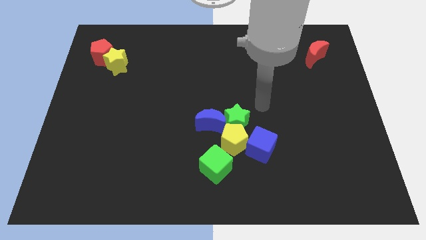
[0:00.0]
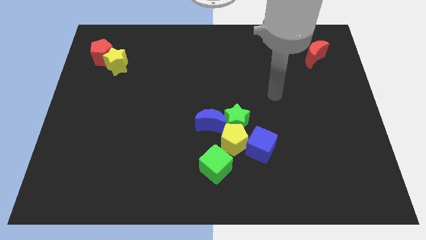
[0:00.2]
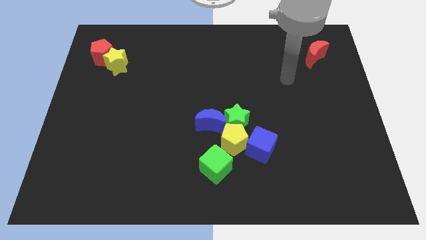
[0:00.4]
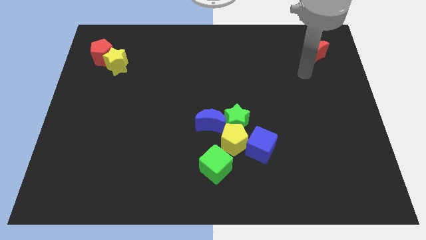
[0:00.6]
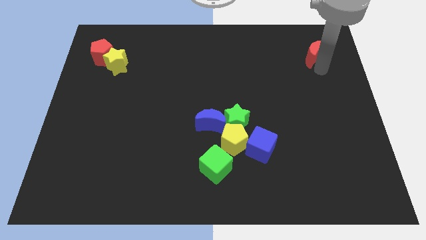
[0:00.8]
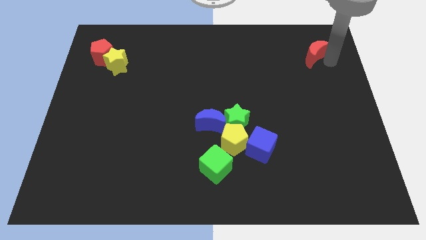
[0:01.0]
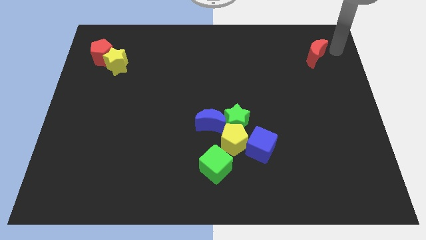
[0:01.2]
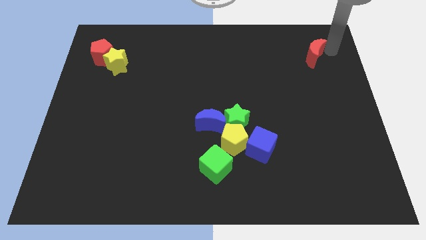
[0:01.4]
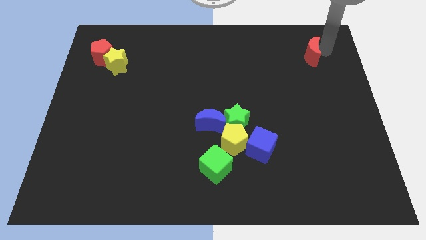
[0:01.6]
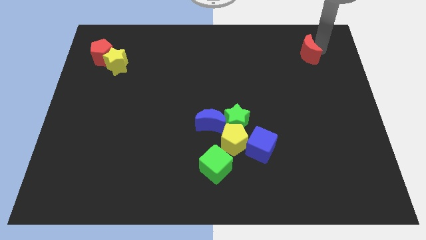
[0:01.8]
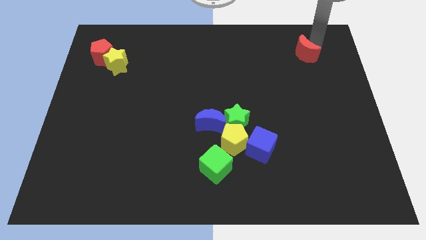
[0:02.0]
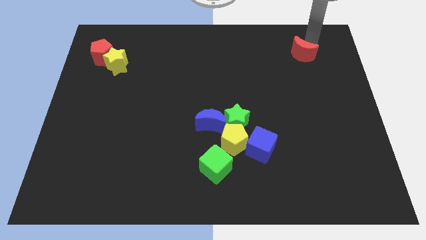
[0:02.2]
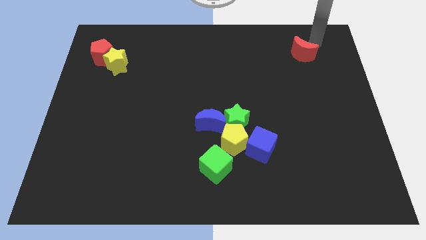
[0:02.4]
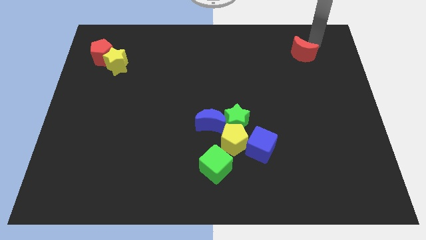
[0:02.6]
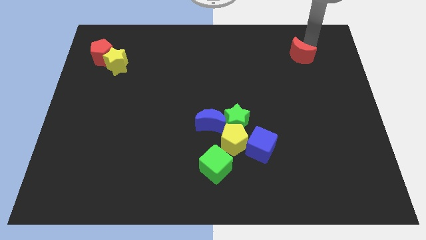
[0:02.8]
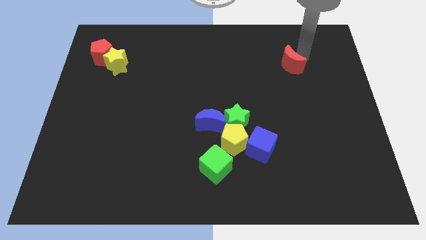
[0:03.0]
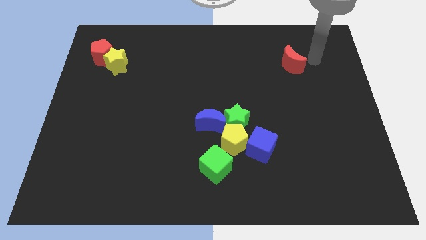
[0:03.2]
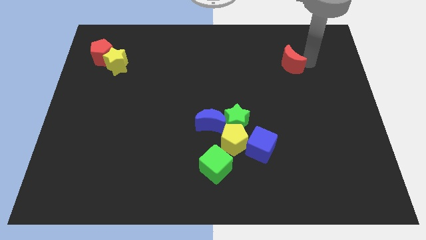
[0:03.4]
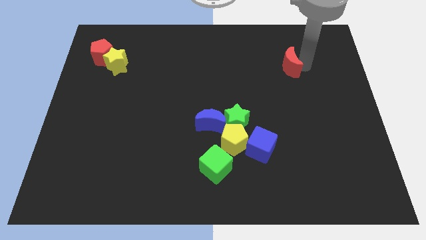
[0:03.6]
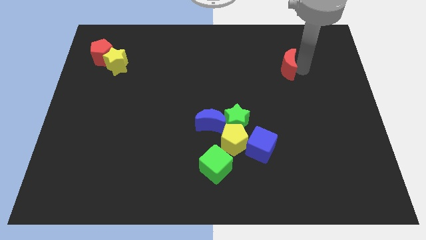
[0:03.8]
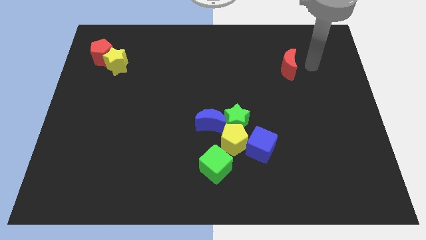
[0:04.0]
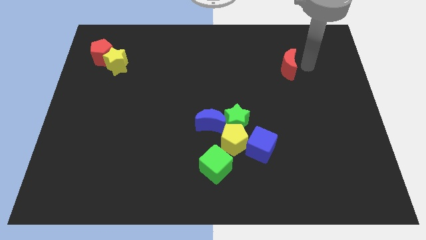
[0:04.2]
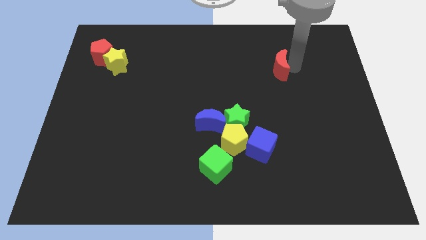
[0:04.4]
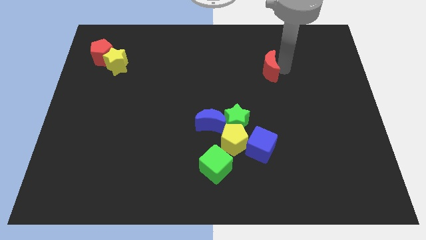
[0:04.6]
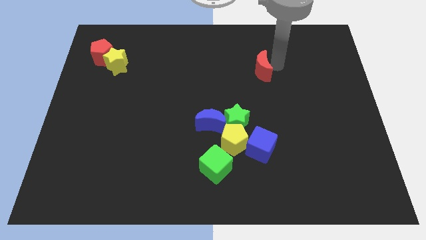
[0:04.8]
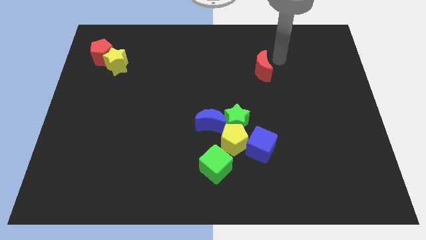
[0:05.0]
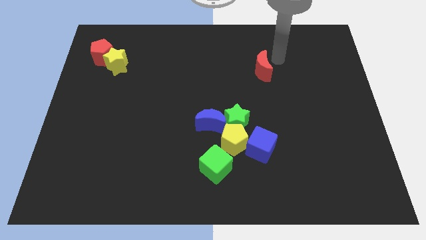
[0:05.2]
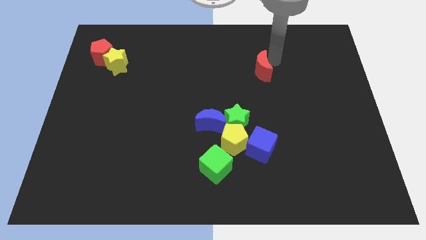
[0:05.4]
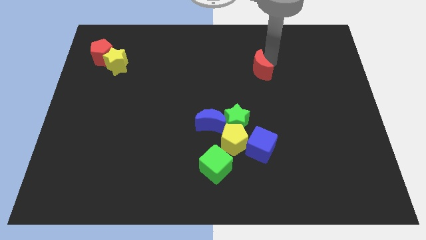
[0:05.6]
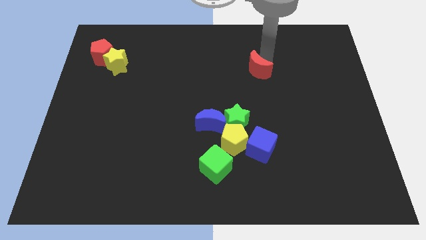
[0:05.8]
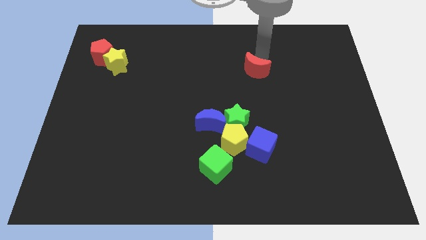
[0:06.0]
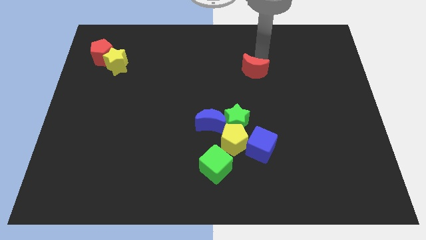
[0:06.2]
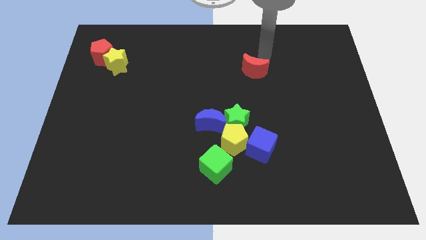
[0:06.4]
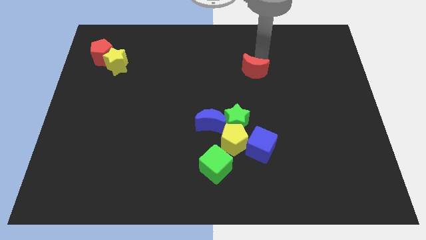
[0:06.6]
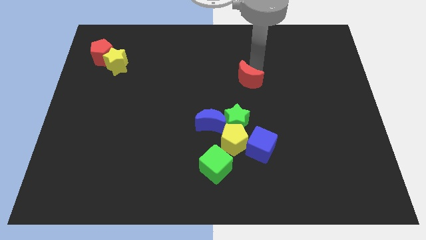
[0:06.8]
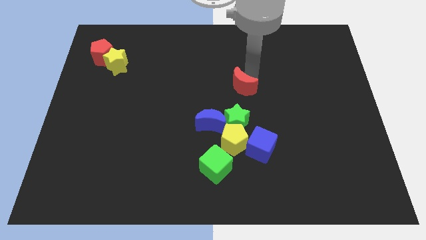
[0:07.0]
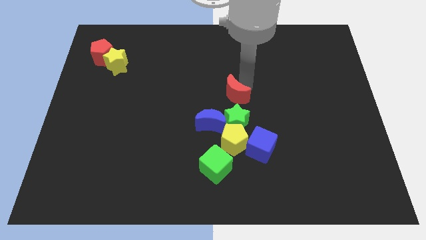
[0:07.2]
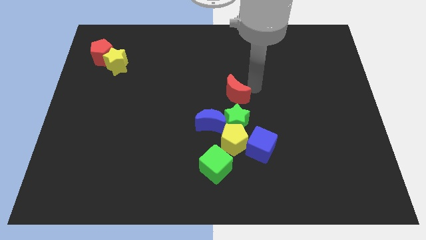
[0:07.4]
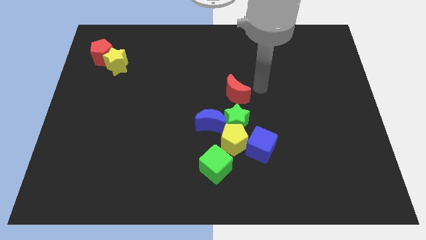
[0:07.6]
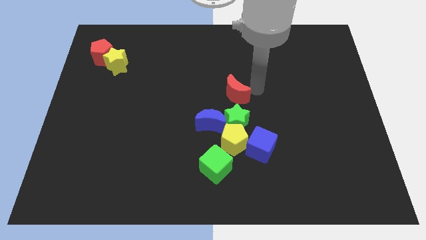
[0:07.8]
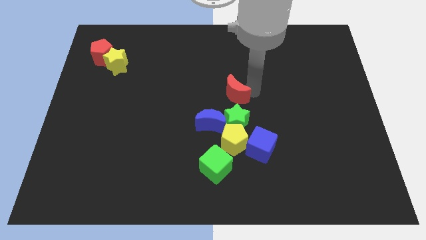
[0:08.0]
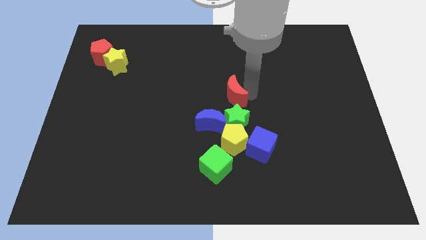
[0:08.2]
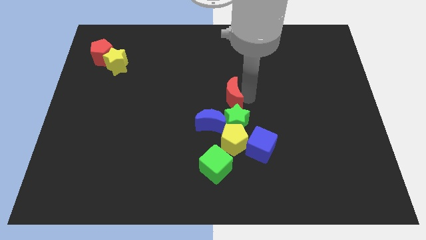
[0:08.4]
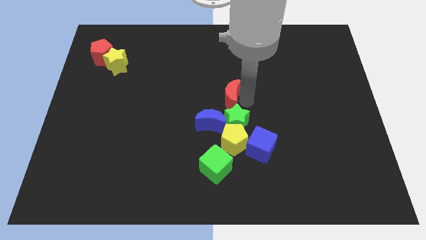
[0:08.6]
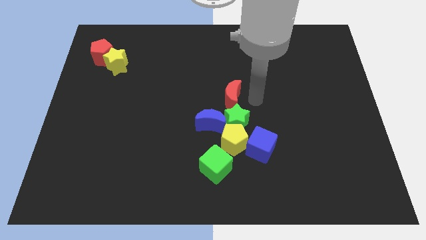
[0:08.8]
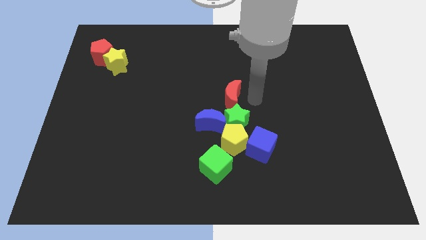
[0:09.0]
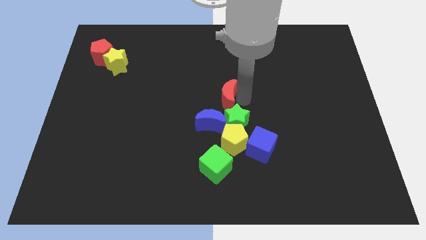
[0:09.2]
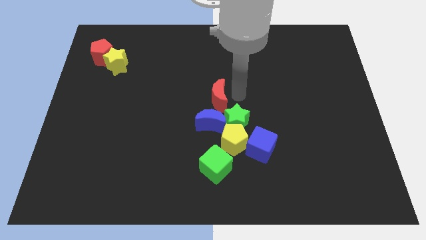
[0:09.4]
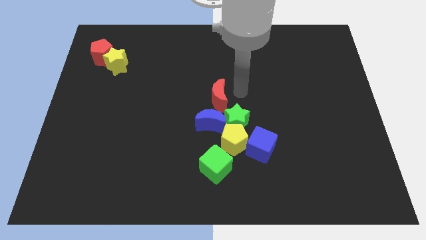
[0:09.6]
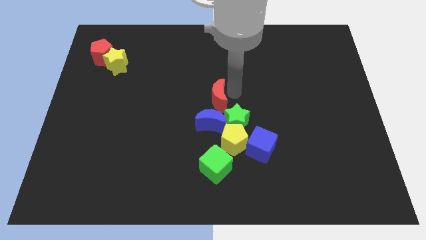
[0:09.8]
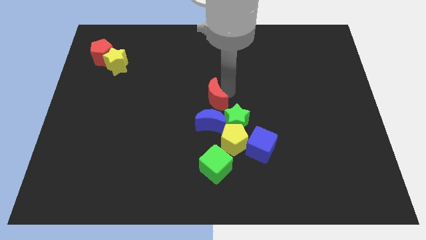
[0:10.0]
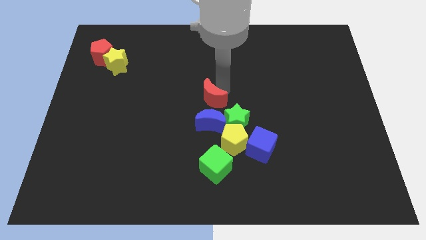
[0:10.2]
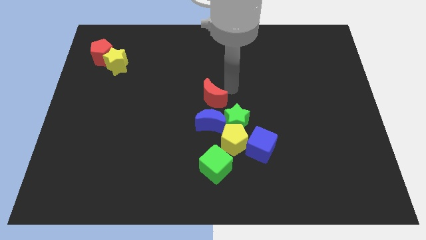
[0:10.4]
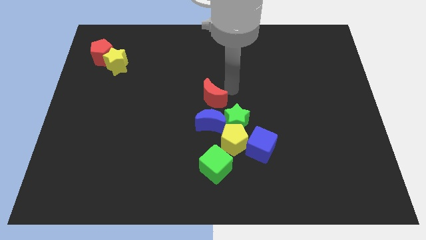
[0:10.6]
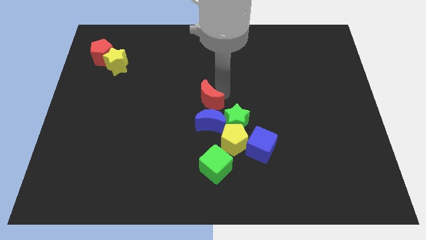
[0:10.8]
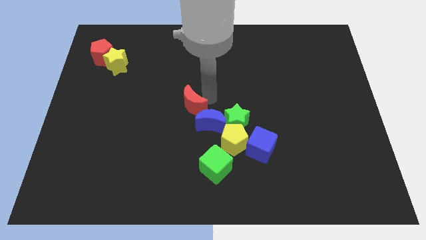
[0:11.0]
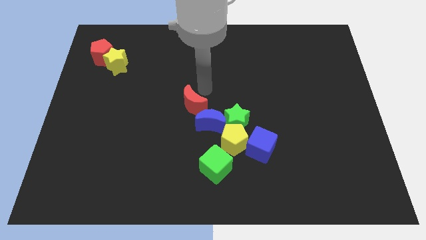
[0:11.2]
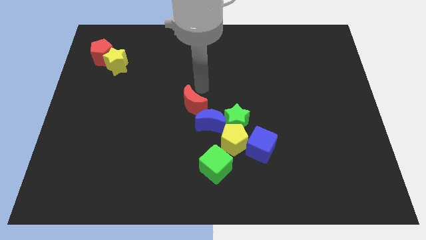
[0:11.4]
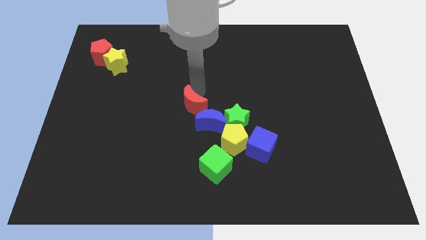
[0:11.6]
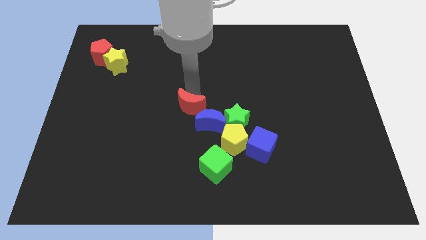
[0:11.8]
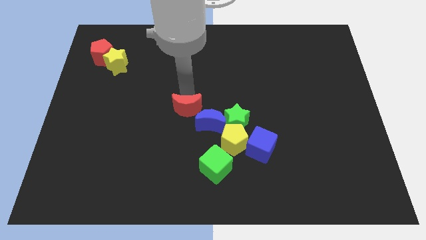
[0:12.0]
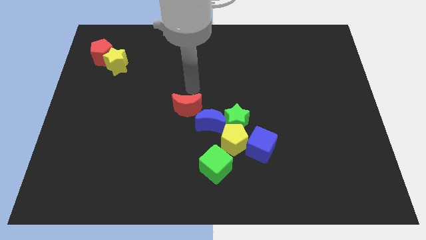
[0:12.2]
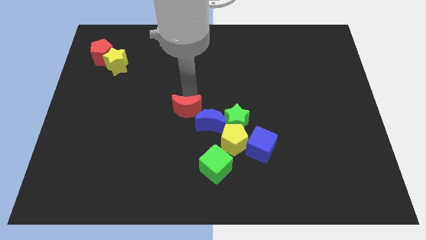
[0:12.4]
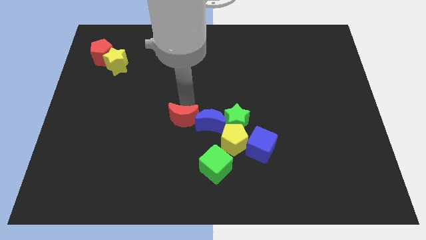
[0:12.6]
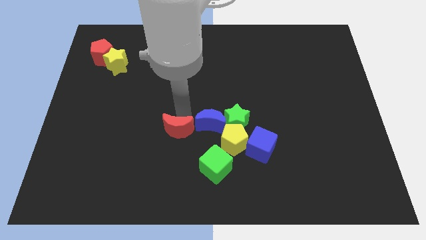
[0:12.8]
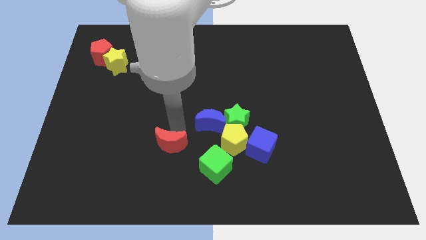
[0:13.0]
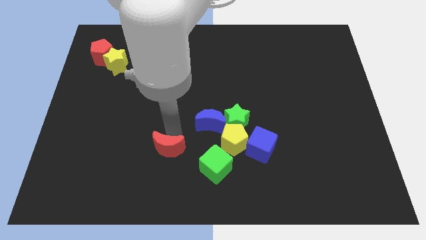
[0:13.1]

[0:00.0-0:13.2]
push the red moon to the left side of the green cube

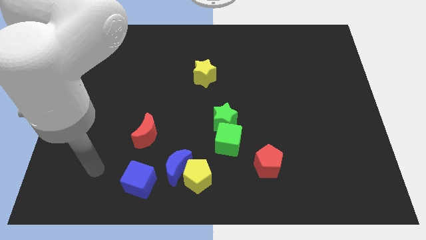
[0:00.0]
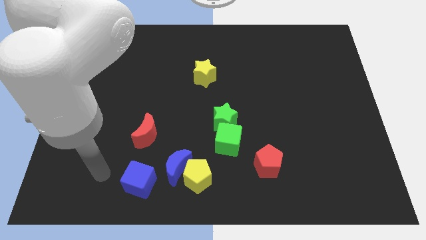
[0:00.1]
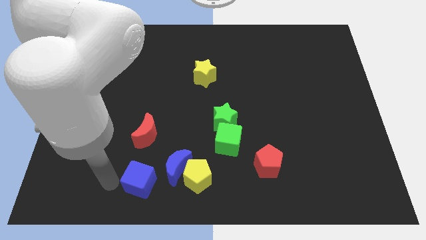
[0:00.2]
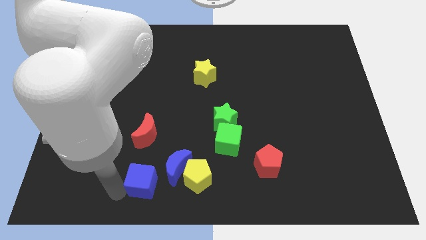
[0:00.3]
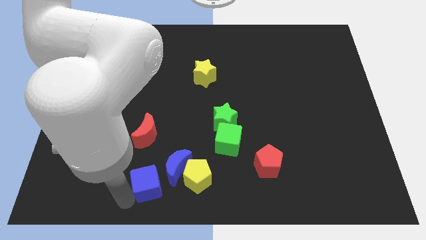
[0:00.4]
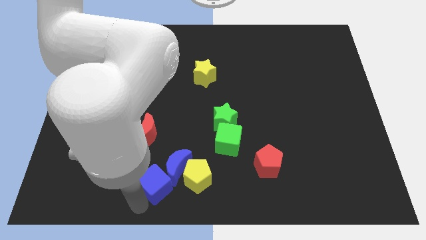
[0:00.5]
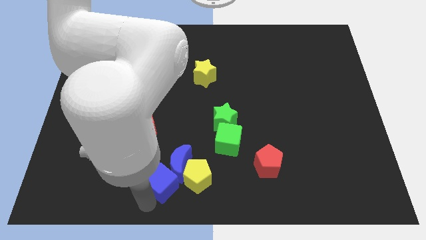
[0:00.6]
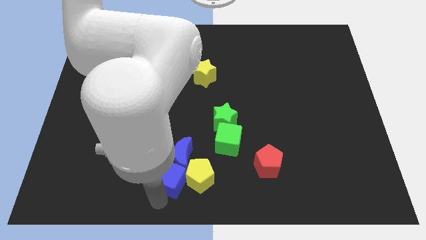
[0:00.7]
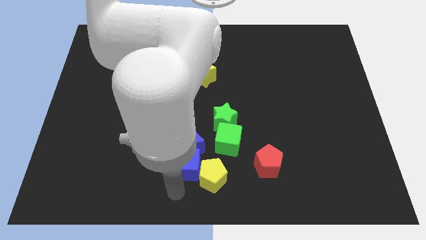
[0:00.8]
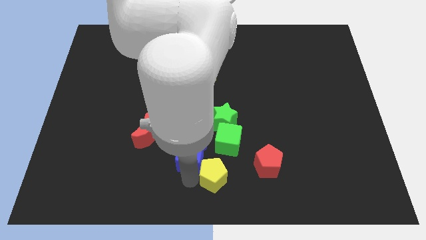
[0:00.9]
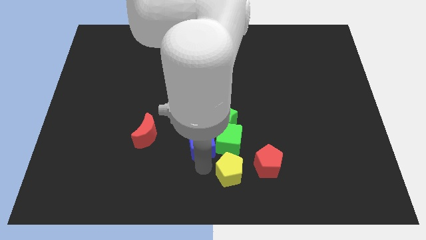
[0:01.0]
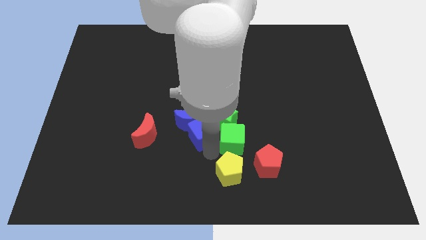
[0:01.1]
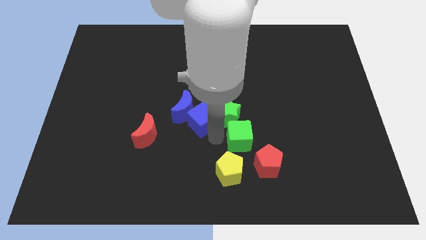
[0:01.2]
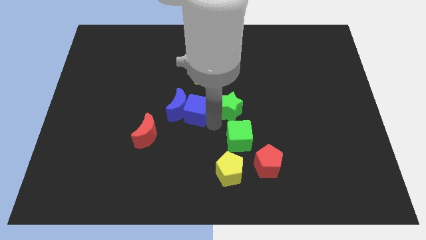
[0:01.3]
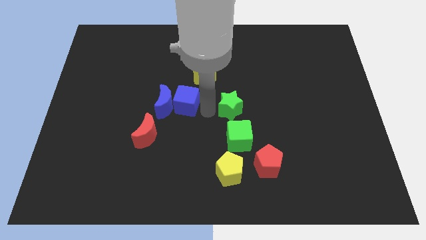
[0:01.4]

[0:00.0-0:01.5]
slide the blue moon to the top of the red moon
